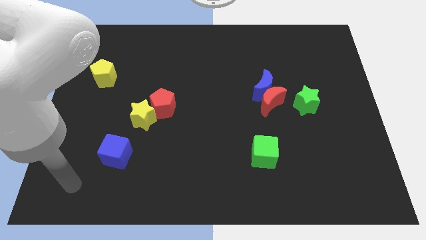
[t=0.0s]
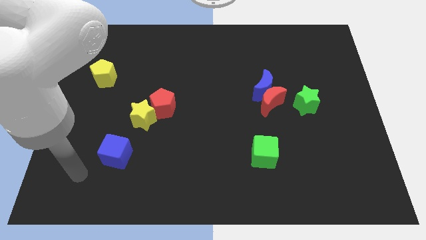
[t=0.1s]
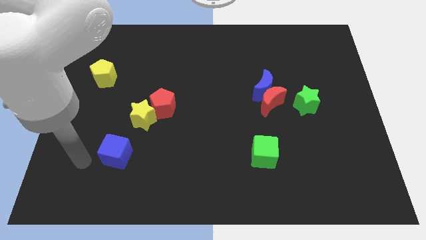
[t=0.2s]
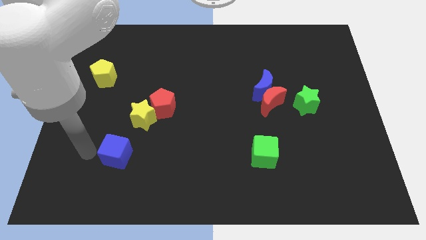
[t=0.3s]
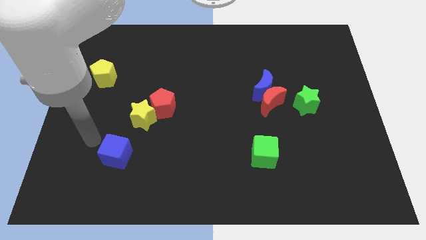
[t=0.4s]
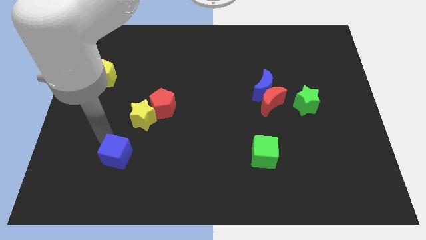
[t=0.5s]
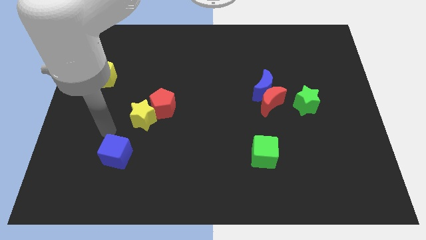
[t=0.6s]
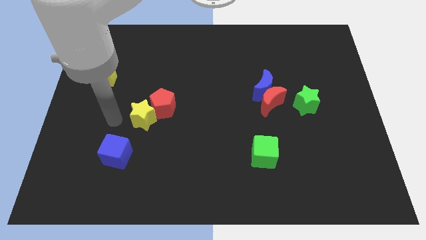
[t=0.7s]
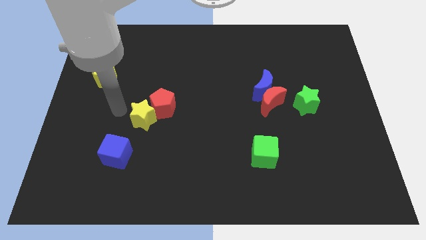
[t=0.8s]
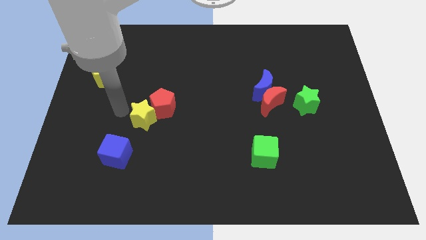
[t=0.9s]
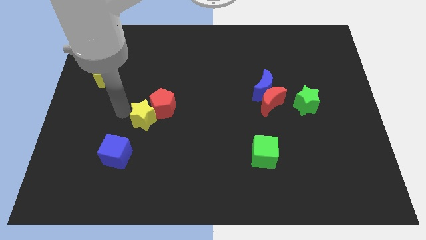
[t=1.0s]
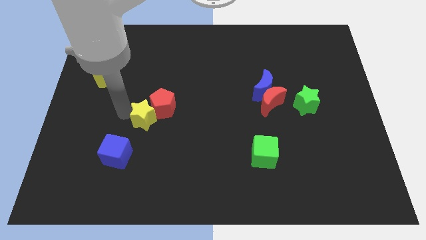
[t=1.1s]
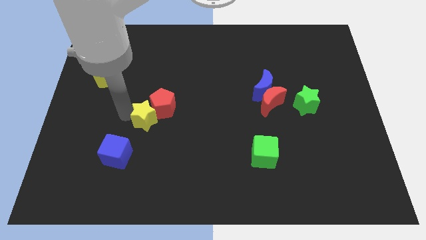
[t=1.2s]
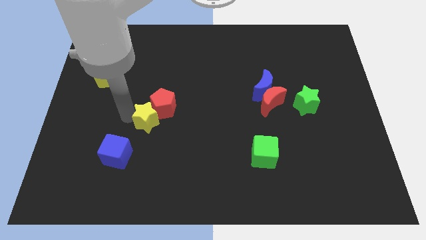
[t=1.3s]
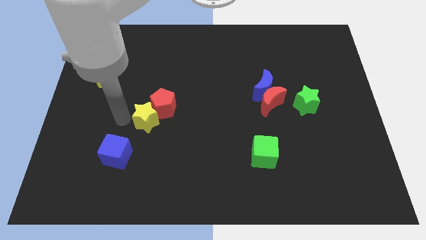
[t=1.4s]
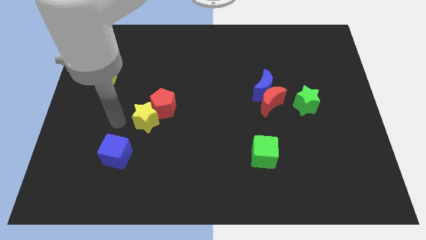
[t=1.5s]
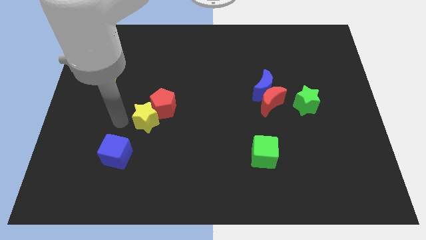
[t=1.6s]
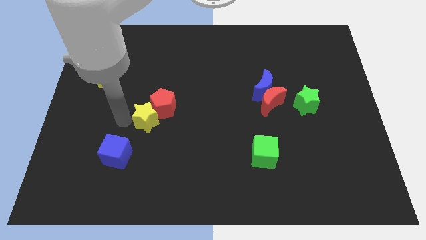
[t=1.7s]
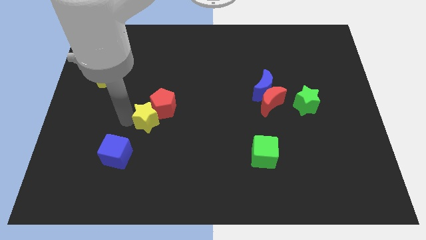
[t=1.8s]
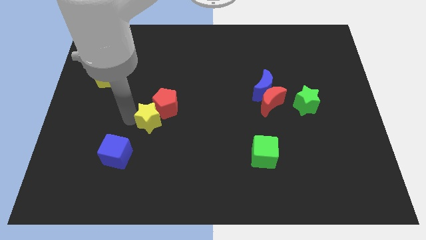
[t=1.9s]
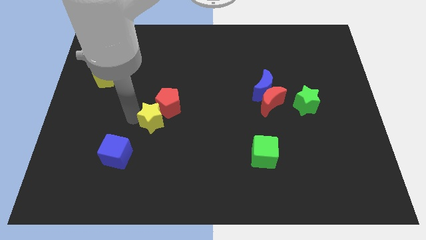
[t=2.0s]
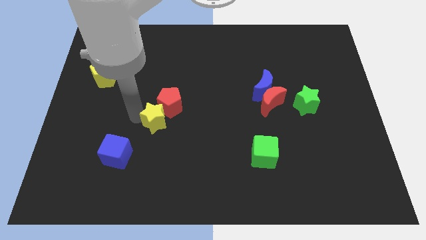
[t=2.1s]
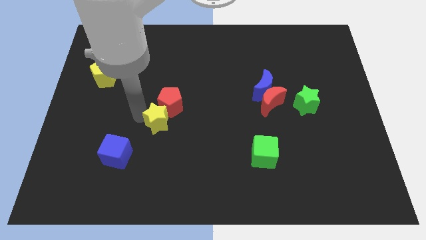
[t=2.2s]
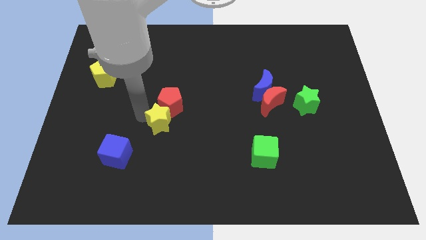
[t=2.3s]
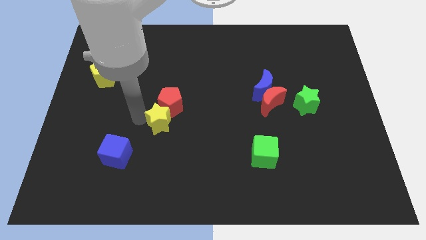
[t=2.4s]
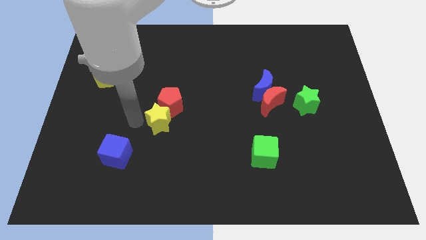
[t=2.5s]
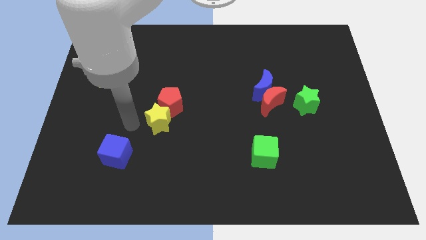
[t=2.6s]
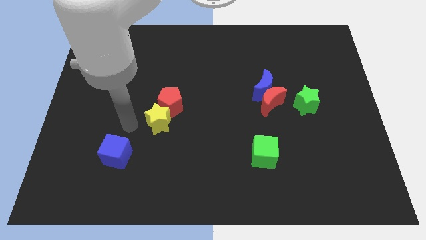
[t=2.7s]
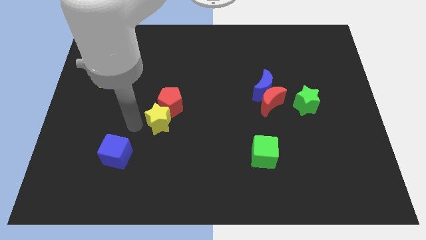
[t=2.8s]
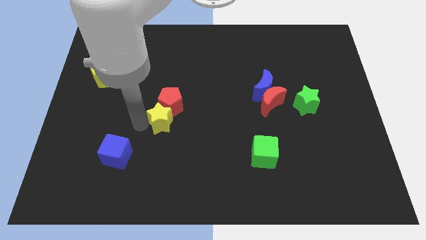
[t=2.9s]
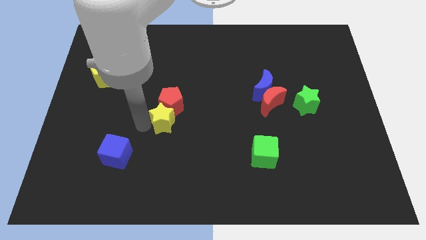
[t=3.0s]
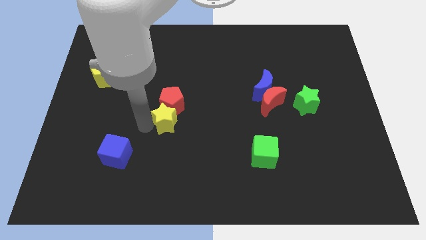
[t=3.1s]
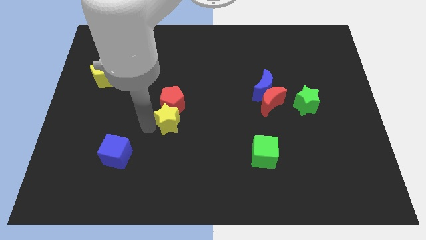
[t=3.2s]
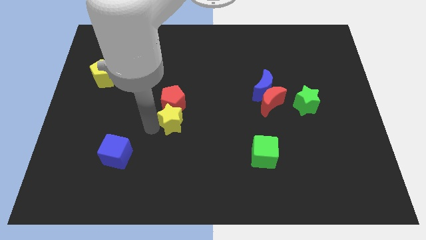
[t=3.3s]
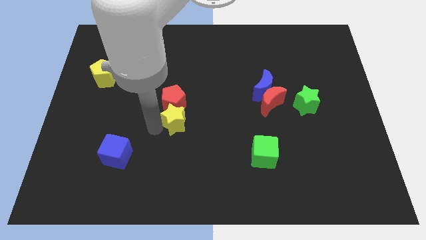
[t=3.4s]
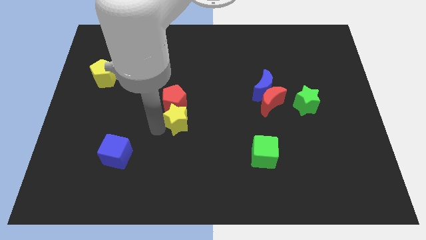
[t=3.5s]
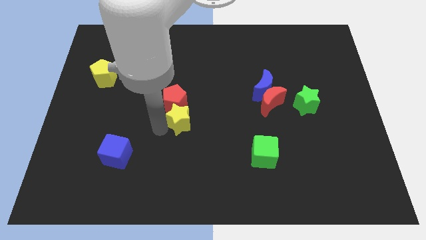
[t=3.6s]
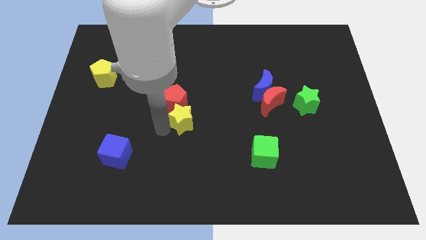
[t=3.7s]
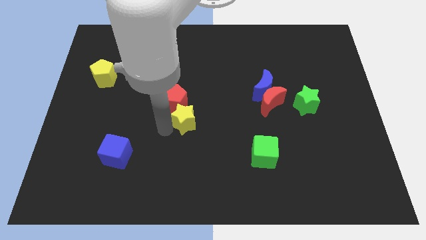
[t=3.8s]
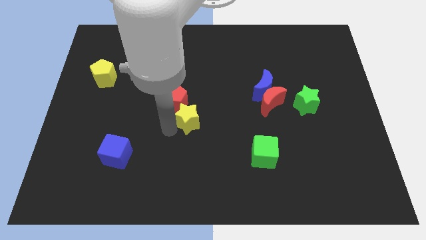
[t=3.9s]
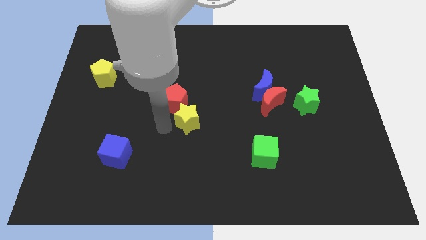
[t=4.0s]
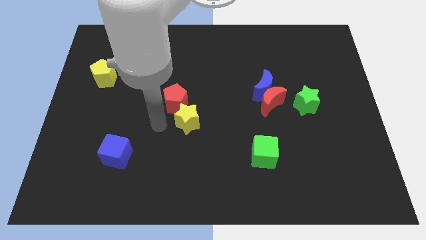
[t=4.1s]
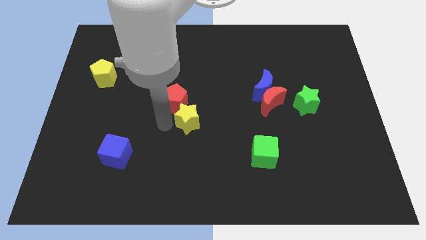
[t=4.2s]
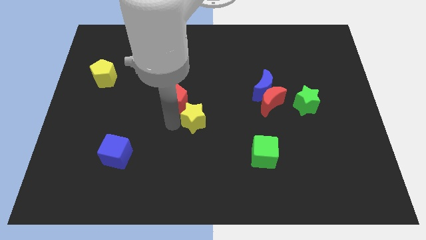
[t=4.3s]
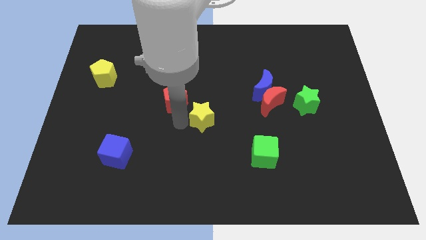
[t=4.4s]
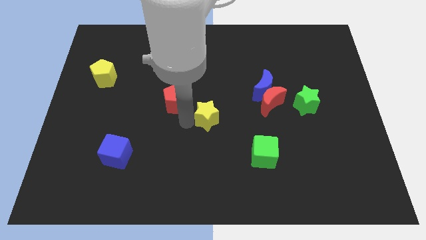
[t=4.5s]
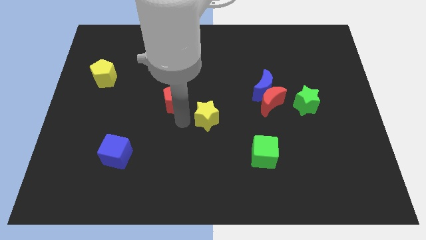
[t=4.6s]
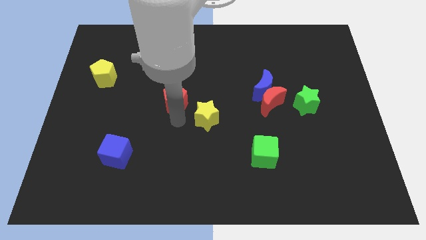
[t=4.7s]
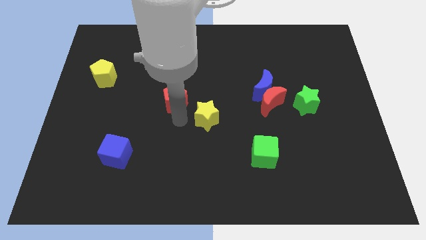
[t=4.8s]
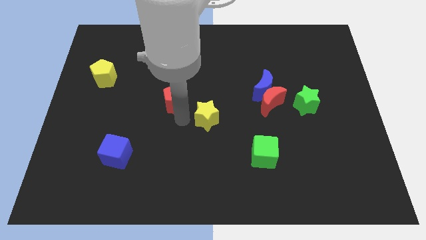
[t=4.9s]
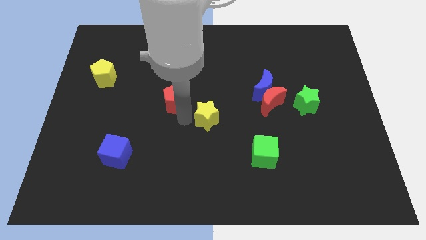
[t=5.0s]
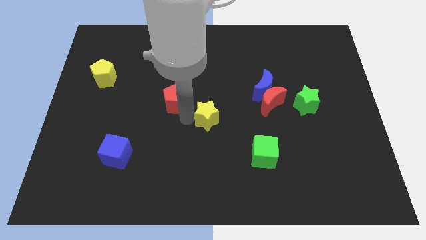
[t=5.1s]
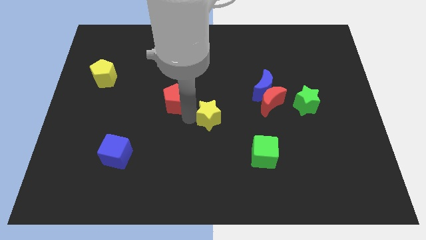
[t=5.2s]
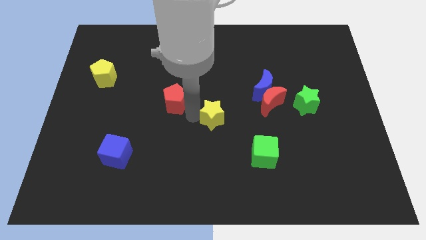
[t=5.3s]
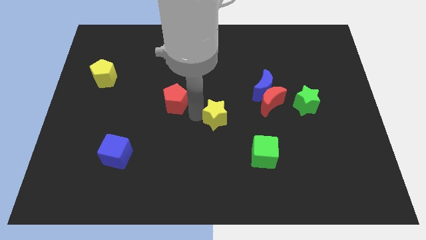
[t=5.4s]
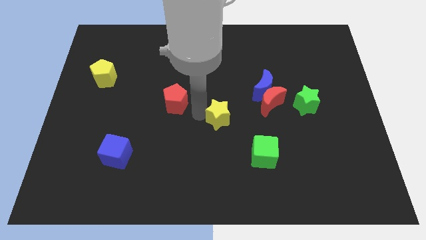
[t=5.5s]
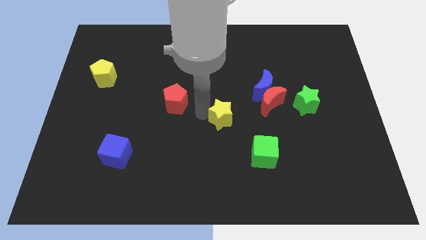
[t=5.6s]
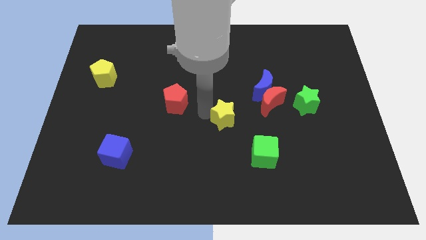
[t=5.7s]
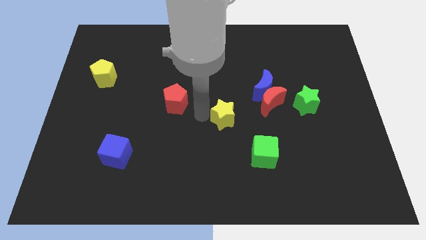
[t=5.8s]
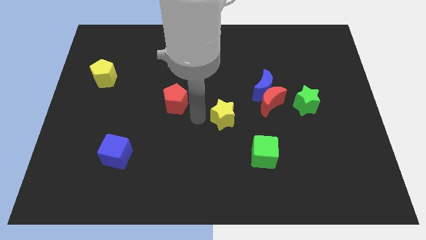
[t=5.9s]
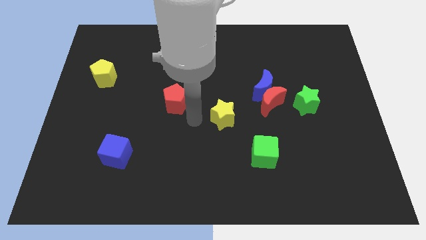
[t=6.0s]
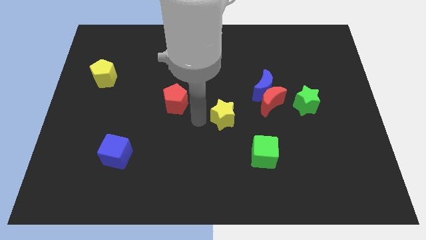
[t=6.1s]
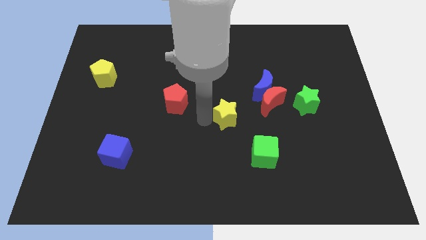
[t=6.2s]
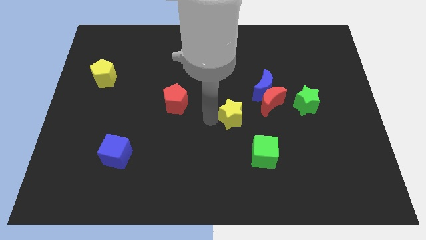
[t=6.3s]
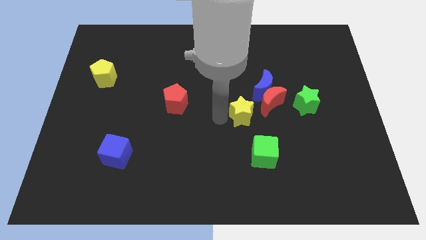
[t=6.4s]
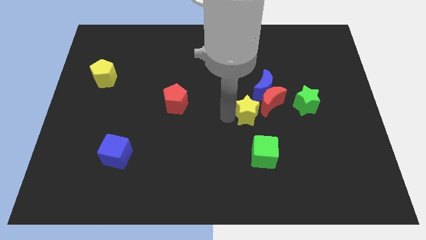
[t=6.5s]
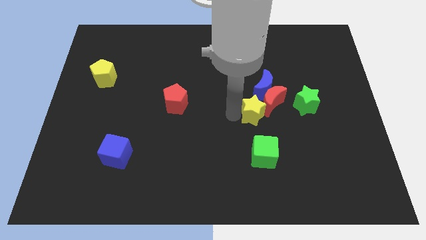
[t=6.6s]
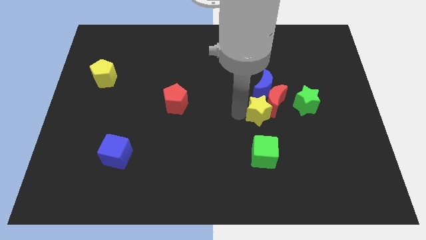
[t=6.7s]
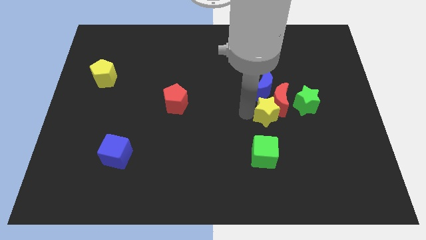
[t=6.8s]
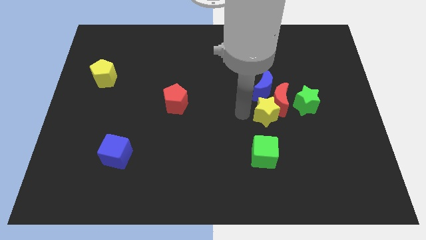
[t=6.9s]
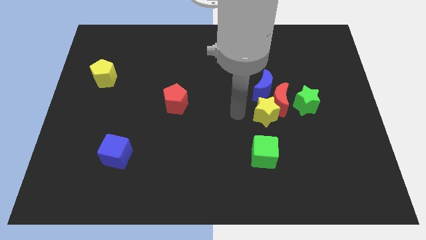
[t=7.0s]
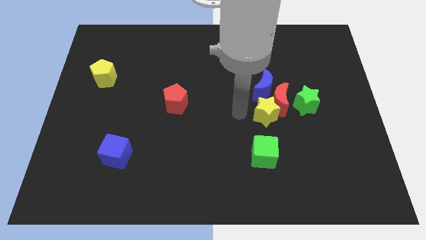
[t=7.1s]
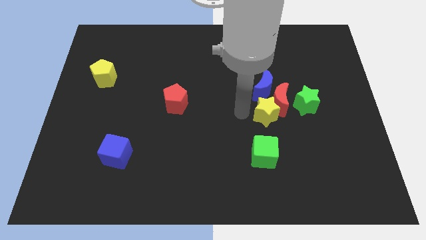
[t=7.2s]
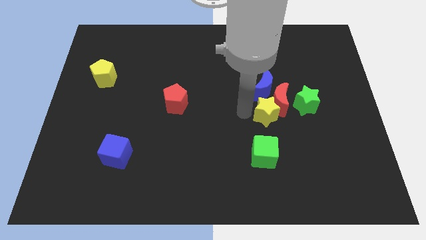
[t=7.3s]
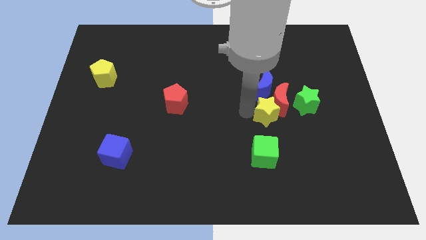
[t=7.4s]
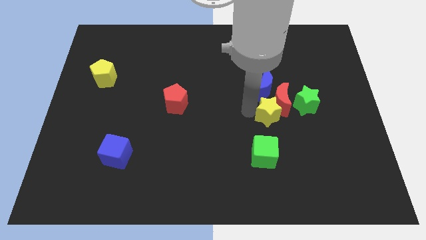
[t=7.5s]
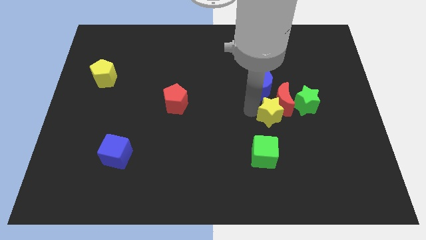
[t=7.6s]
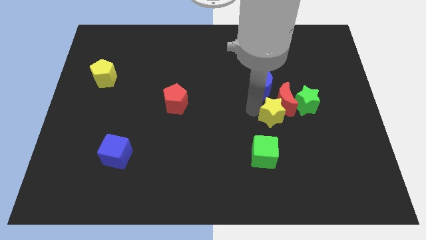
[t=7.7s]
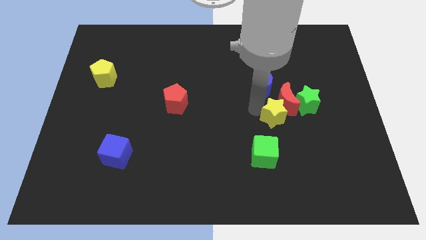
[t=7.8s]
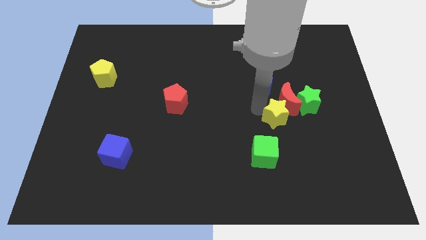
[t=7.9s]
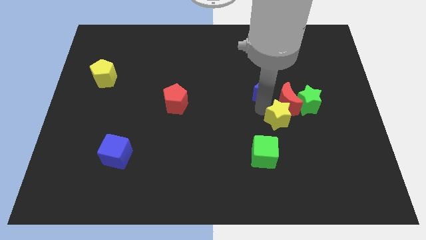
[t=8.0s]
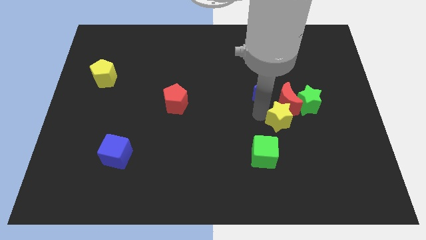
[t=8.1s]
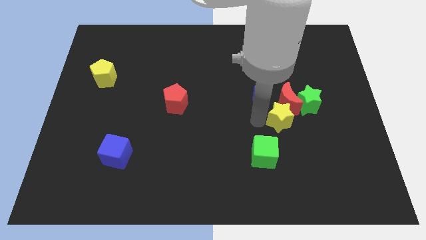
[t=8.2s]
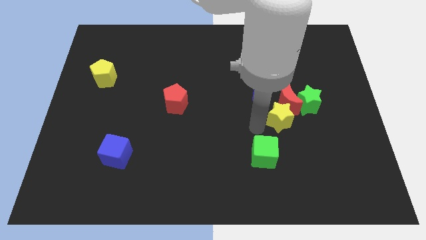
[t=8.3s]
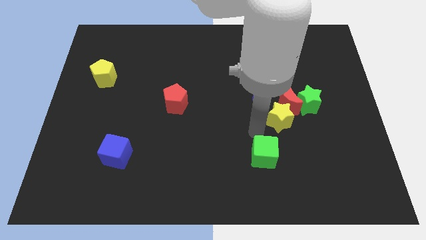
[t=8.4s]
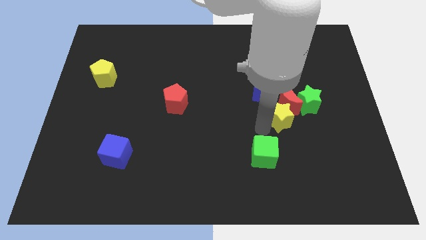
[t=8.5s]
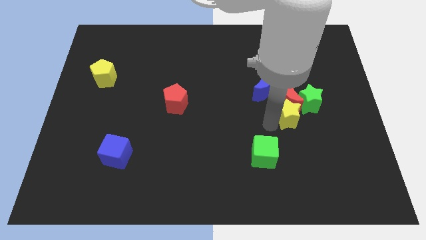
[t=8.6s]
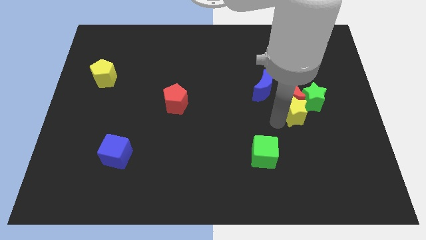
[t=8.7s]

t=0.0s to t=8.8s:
put the yellow star close to the green star
